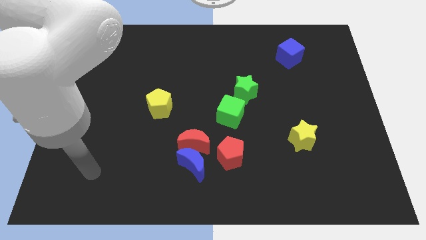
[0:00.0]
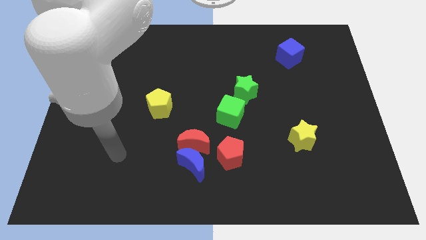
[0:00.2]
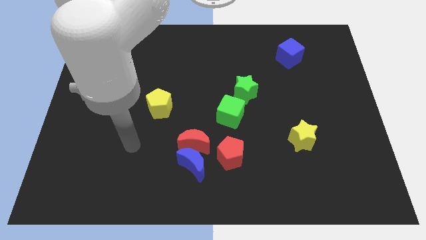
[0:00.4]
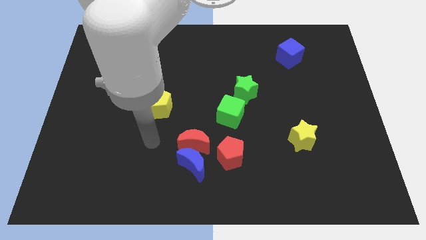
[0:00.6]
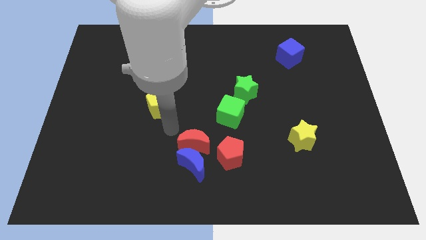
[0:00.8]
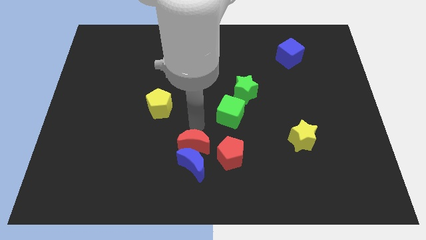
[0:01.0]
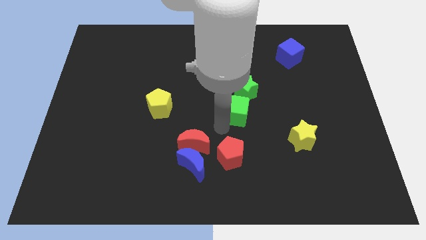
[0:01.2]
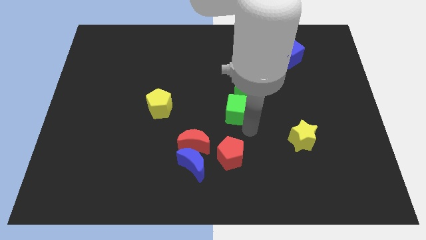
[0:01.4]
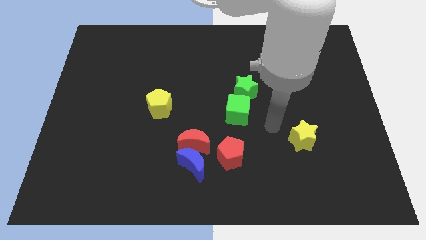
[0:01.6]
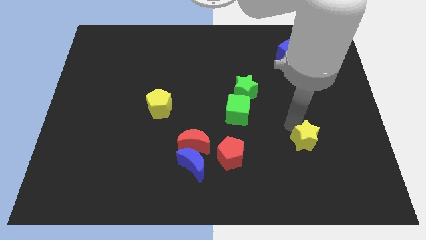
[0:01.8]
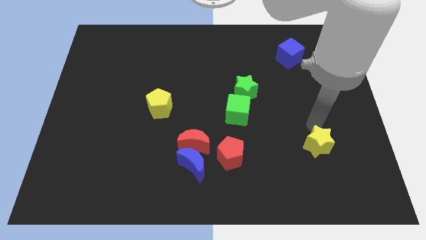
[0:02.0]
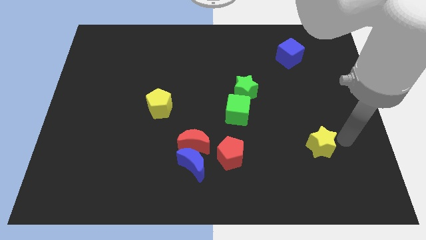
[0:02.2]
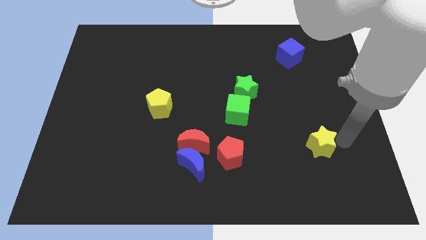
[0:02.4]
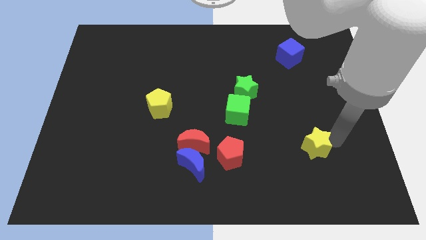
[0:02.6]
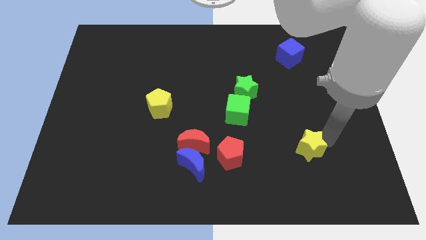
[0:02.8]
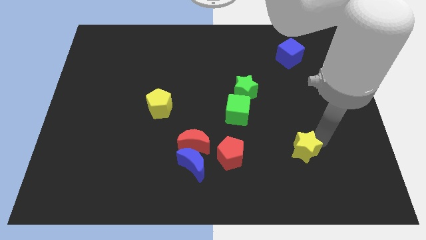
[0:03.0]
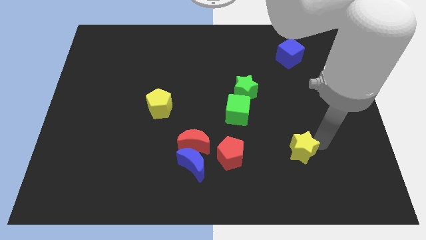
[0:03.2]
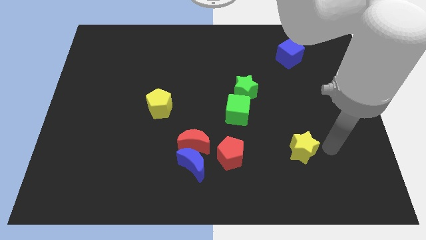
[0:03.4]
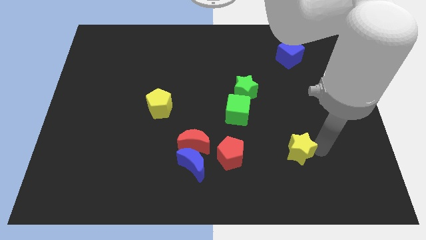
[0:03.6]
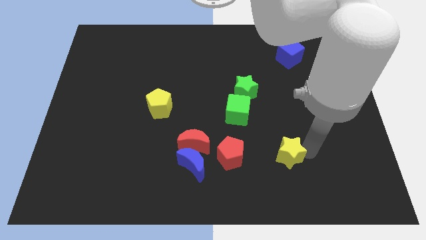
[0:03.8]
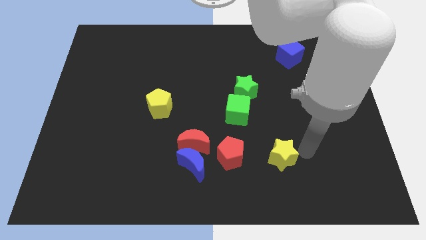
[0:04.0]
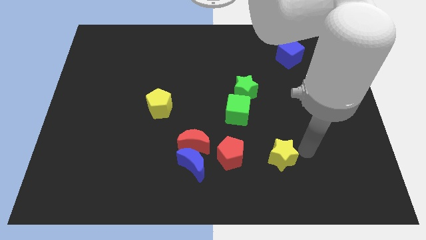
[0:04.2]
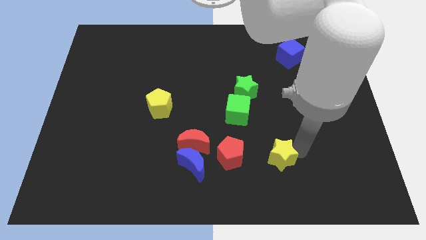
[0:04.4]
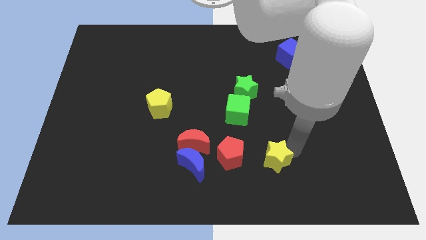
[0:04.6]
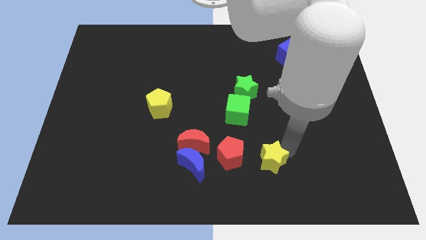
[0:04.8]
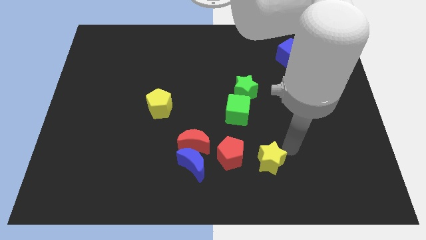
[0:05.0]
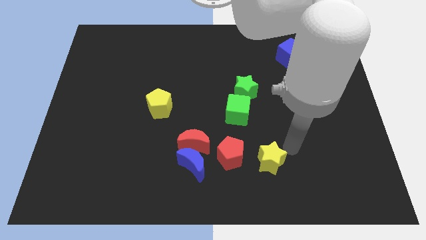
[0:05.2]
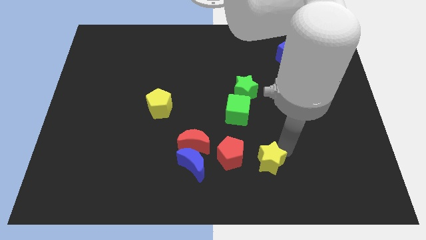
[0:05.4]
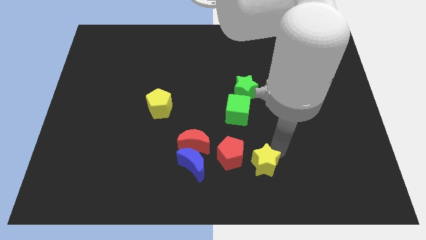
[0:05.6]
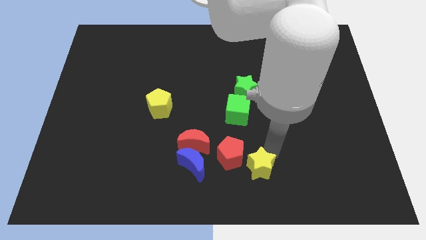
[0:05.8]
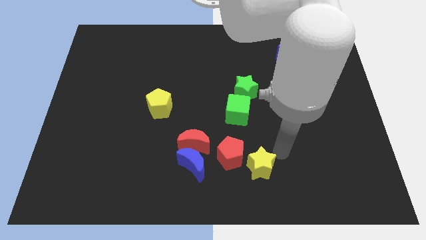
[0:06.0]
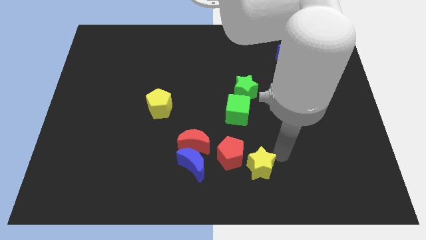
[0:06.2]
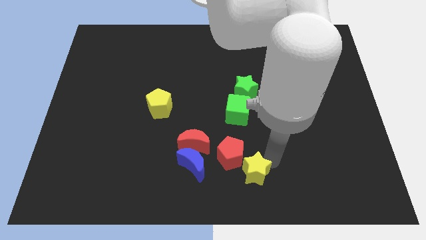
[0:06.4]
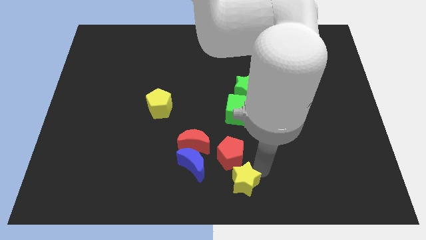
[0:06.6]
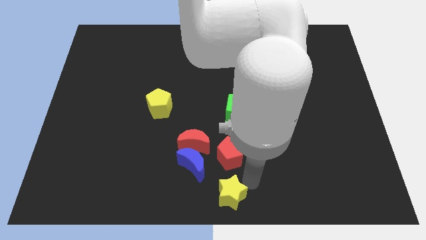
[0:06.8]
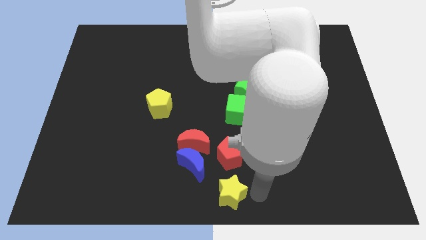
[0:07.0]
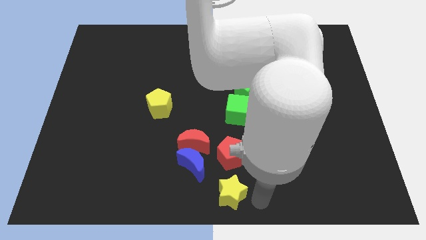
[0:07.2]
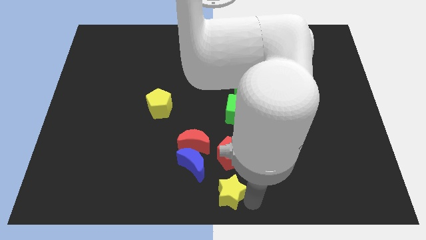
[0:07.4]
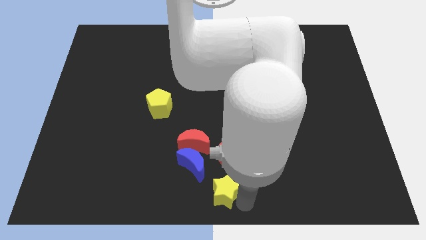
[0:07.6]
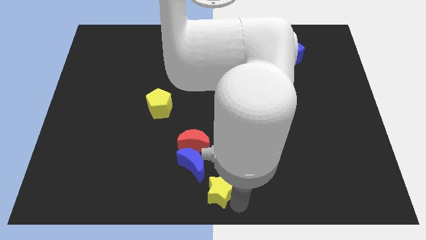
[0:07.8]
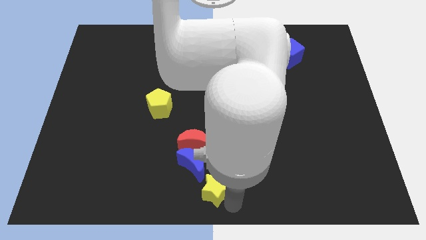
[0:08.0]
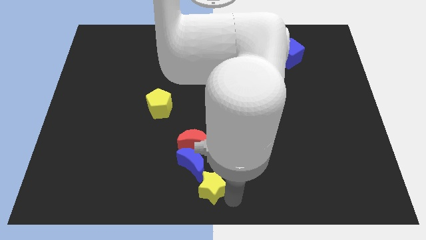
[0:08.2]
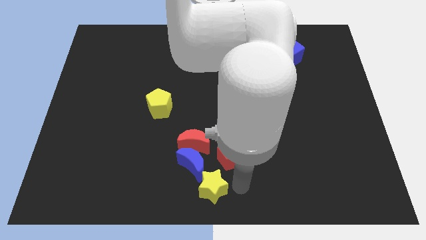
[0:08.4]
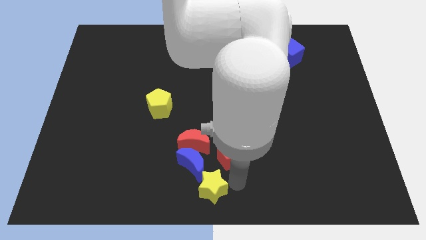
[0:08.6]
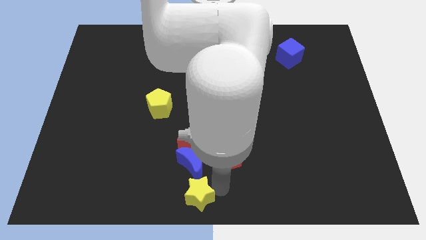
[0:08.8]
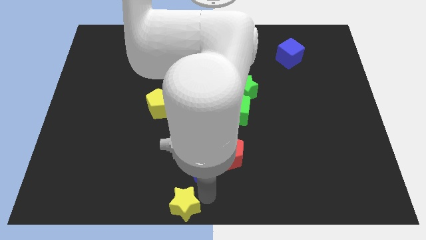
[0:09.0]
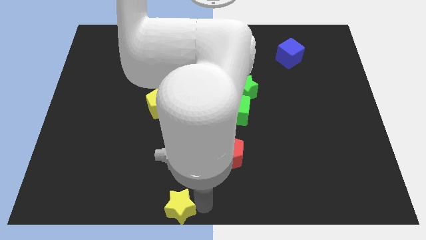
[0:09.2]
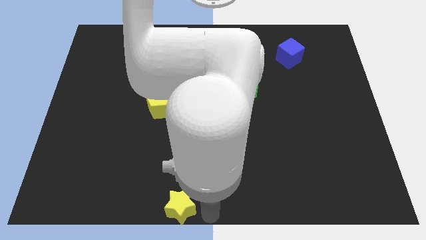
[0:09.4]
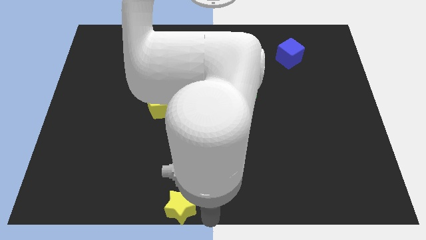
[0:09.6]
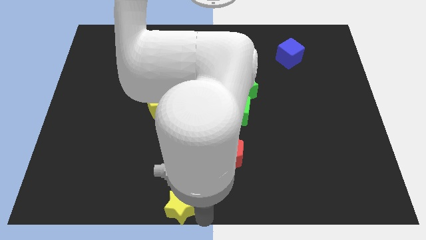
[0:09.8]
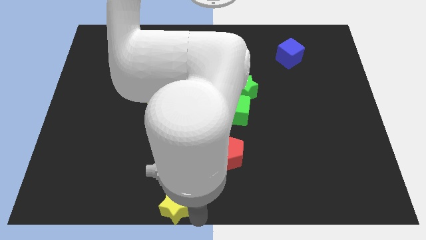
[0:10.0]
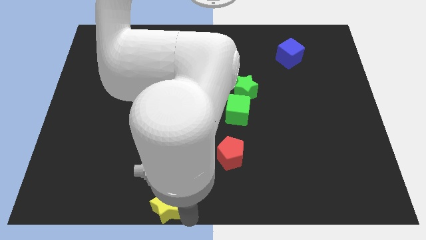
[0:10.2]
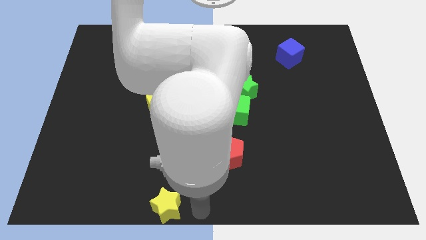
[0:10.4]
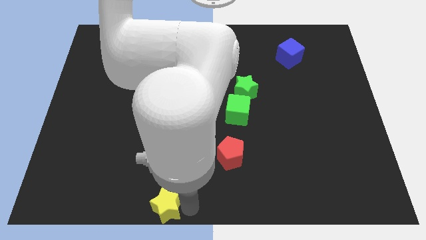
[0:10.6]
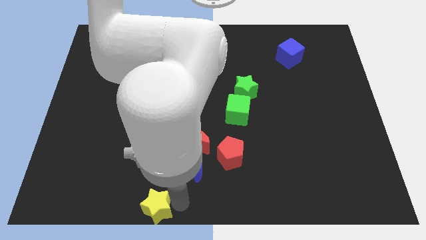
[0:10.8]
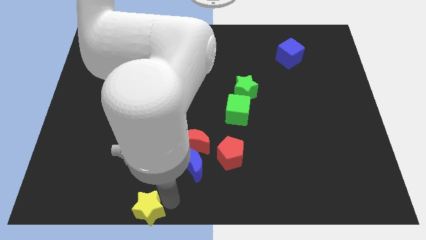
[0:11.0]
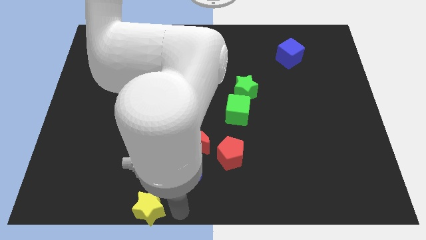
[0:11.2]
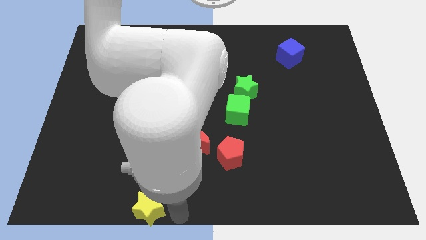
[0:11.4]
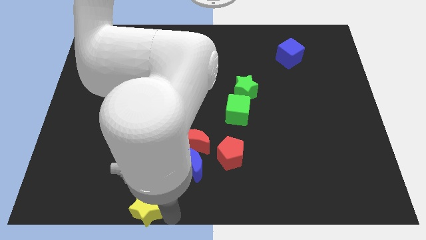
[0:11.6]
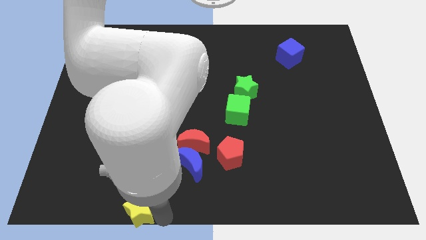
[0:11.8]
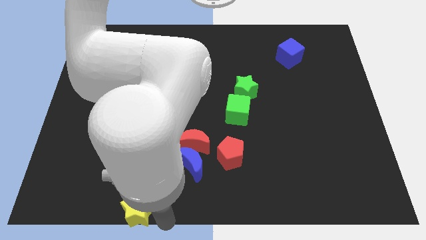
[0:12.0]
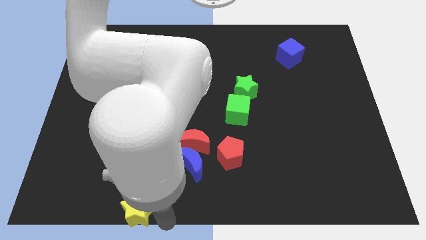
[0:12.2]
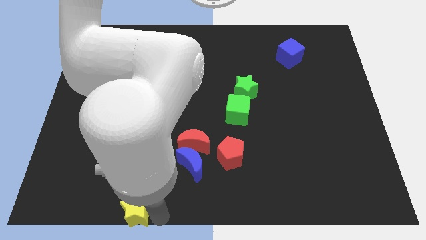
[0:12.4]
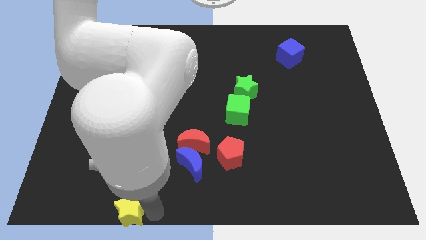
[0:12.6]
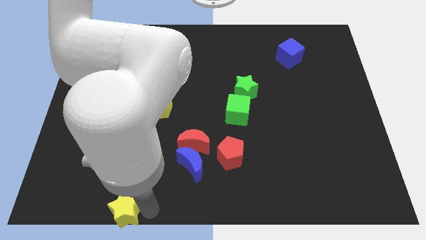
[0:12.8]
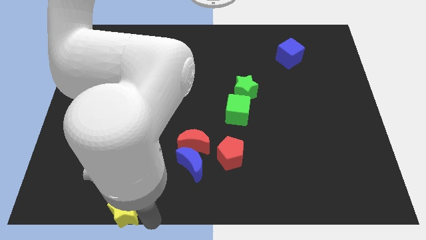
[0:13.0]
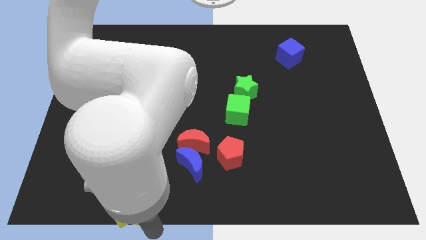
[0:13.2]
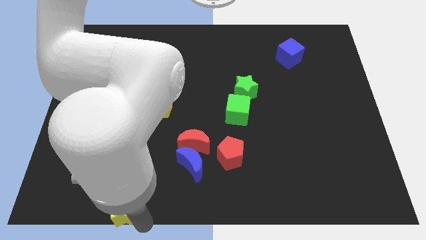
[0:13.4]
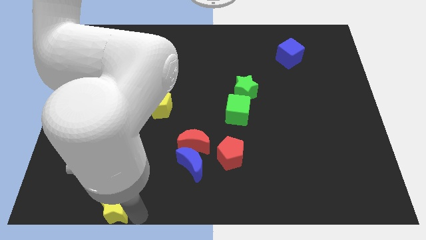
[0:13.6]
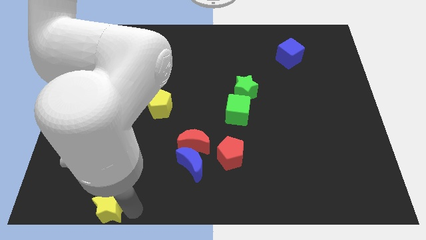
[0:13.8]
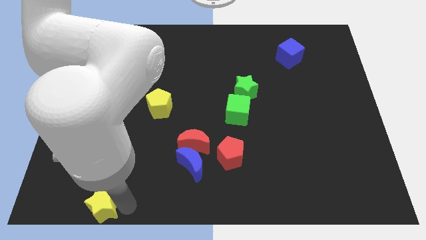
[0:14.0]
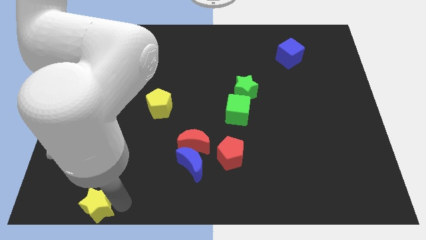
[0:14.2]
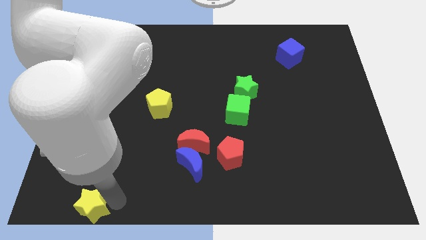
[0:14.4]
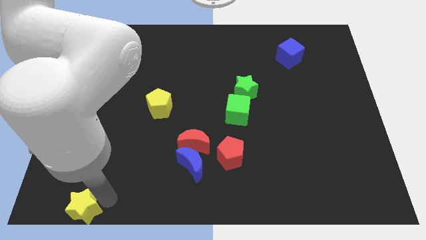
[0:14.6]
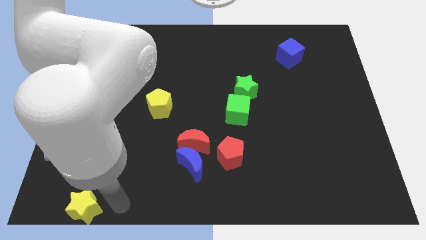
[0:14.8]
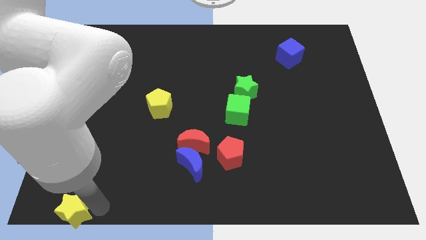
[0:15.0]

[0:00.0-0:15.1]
put the yellow star to the bottom left
